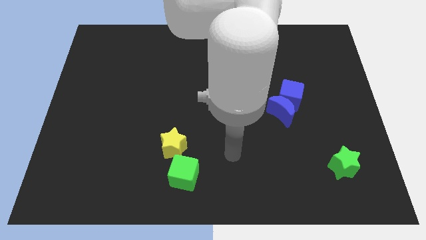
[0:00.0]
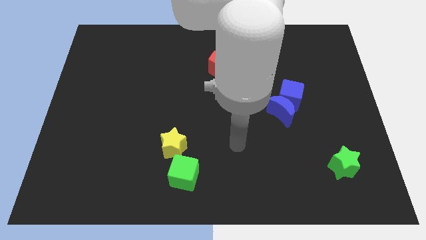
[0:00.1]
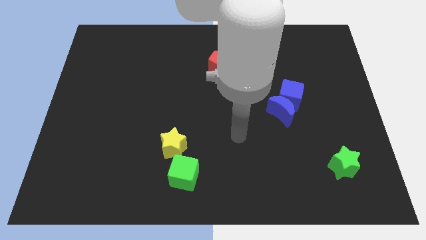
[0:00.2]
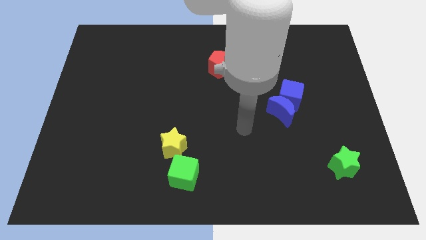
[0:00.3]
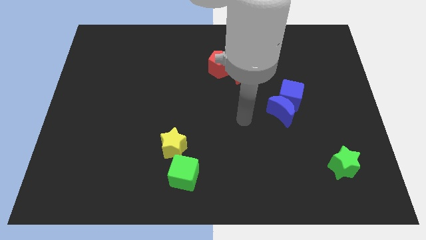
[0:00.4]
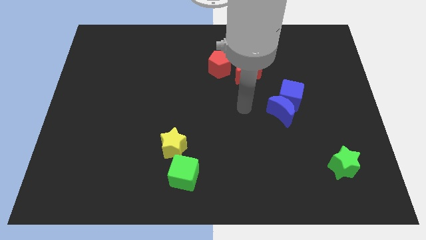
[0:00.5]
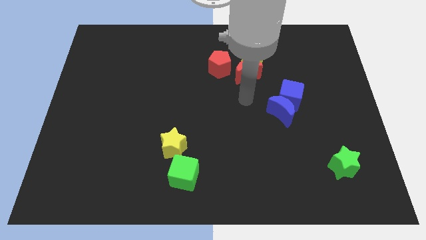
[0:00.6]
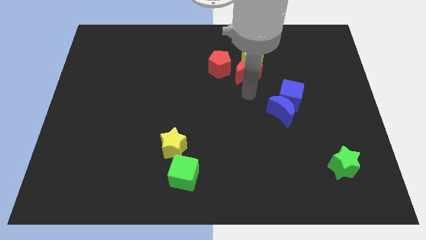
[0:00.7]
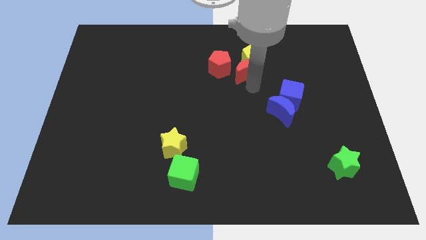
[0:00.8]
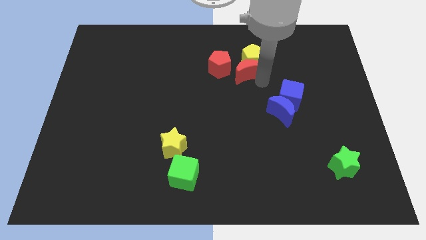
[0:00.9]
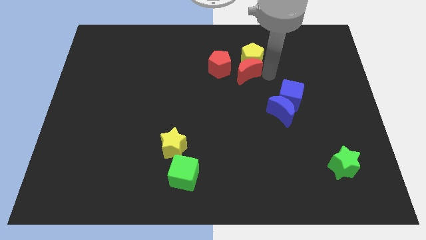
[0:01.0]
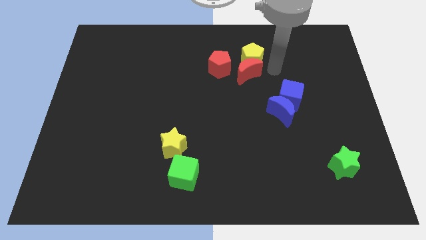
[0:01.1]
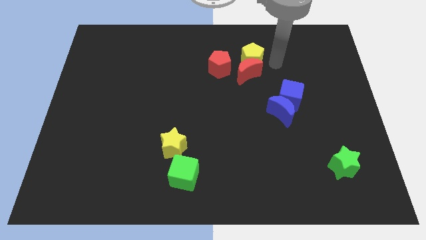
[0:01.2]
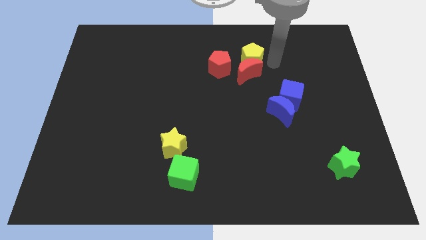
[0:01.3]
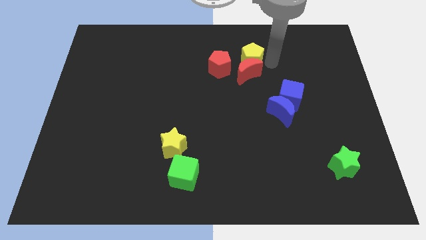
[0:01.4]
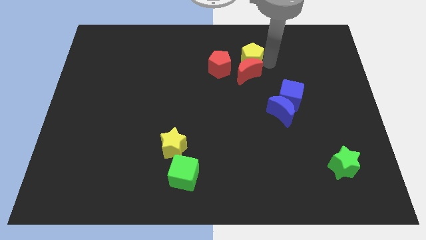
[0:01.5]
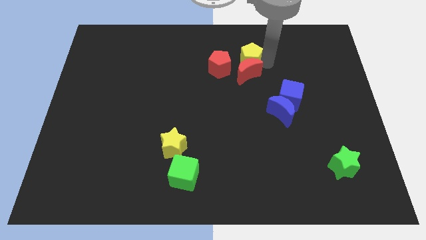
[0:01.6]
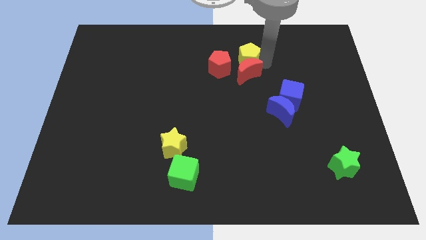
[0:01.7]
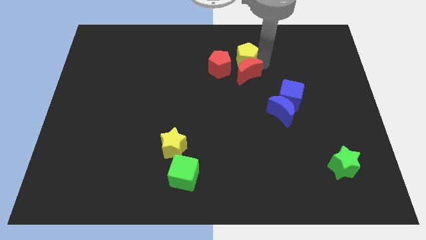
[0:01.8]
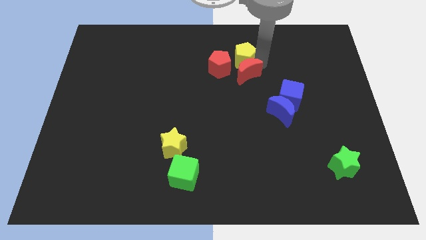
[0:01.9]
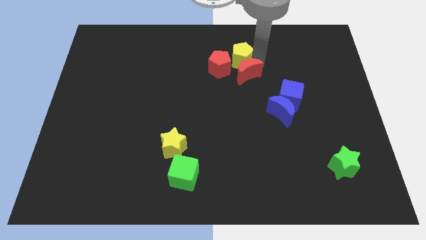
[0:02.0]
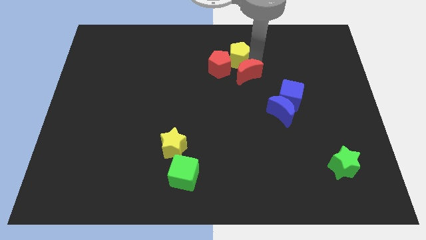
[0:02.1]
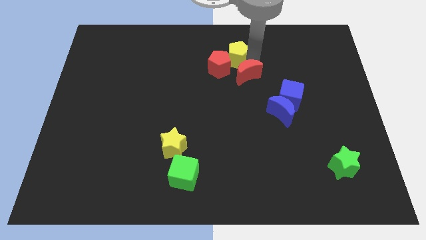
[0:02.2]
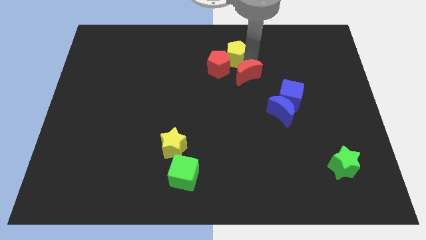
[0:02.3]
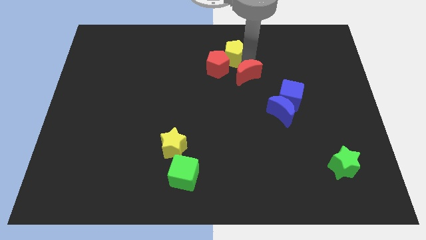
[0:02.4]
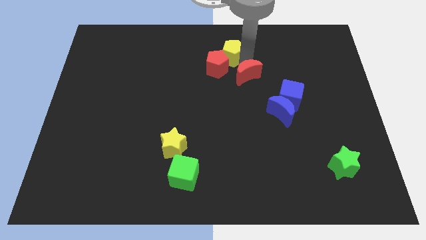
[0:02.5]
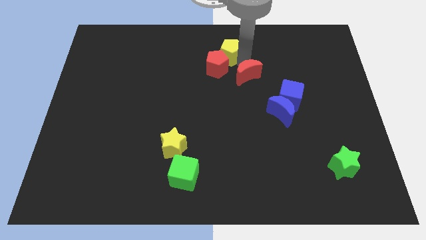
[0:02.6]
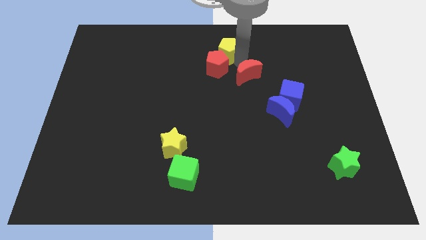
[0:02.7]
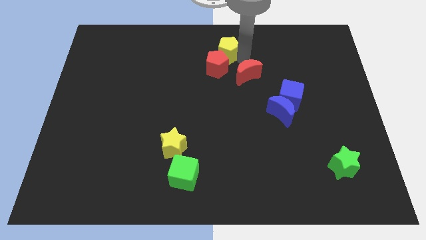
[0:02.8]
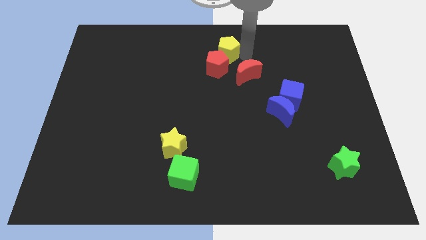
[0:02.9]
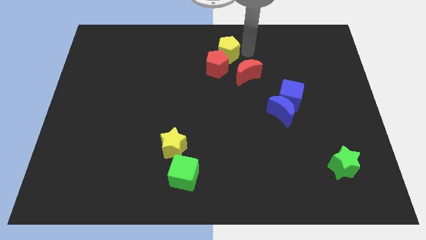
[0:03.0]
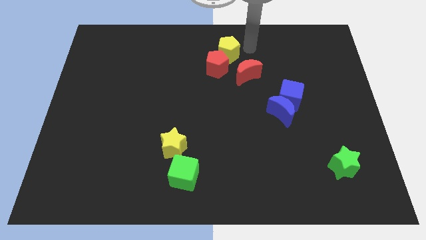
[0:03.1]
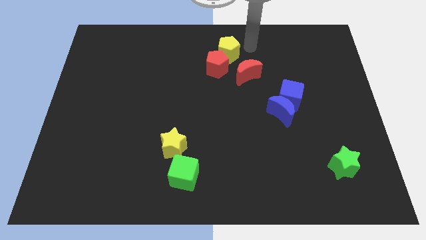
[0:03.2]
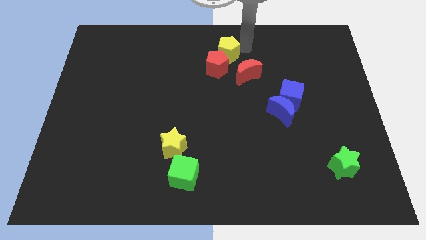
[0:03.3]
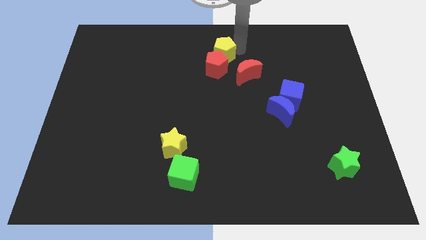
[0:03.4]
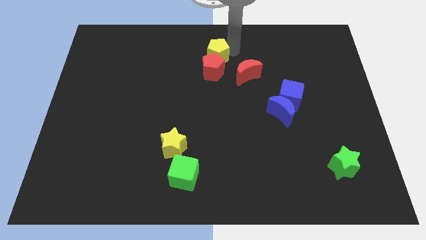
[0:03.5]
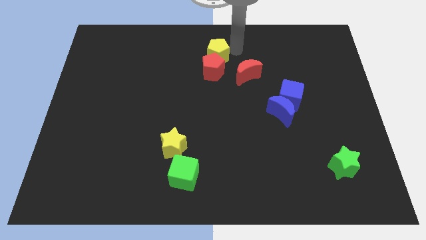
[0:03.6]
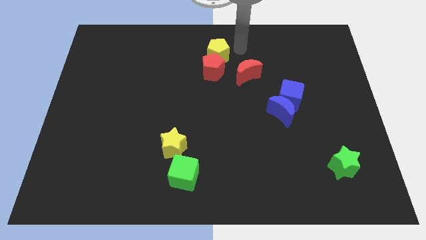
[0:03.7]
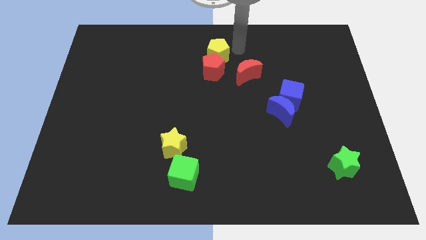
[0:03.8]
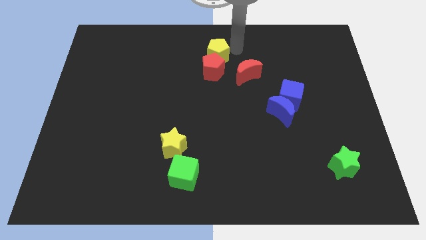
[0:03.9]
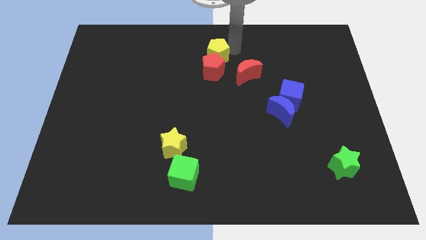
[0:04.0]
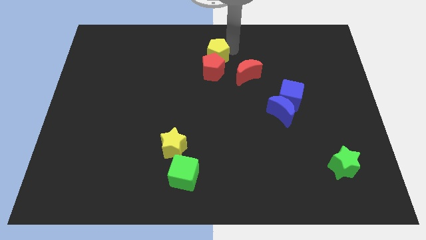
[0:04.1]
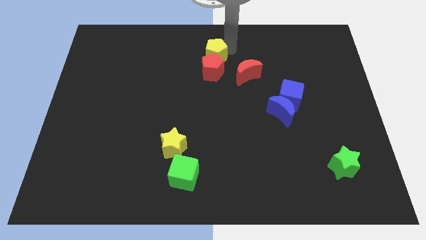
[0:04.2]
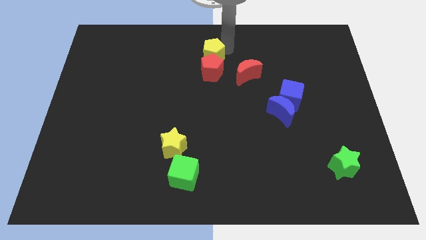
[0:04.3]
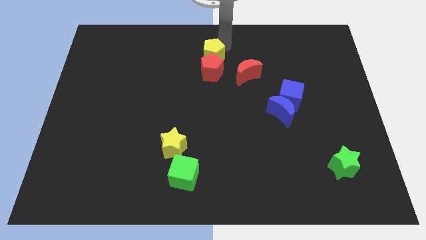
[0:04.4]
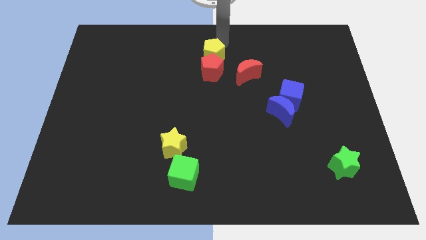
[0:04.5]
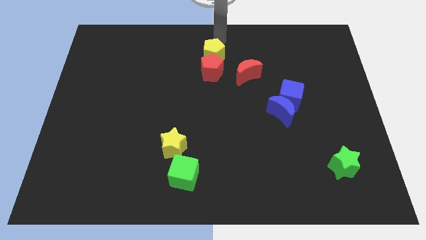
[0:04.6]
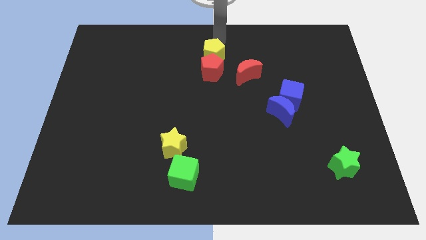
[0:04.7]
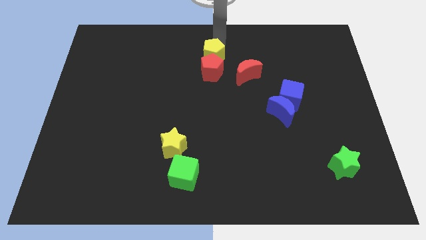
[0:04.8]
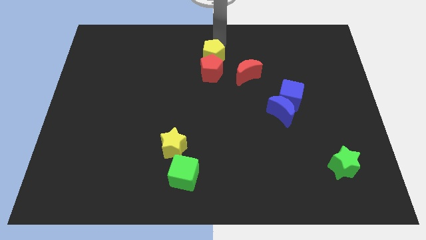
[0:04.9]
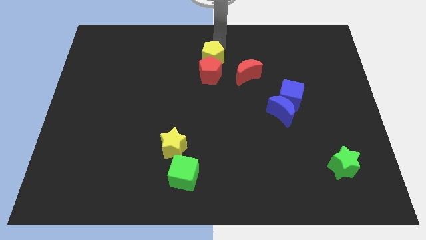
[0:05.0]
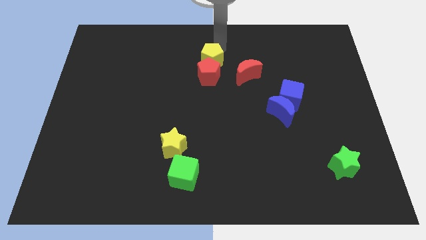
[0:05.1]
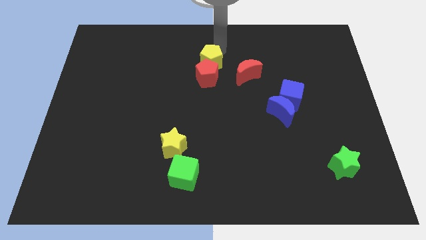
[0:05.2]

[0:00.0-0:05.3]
push the yellow pentagon to the left of the red moon
